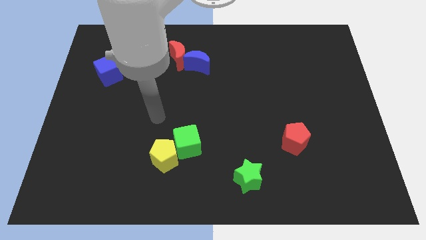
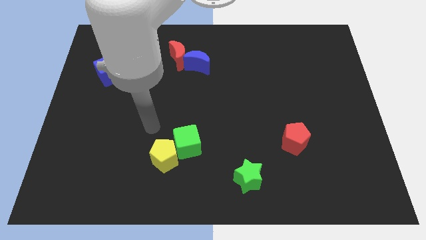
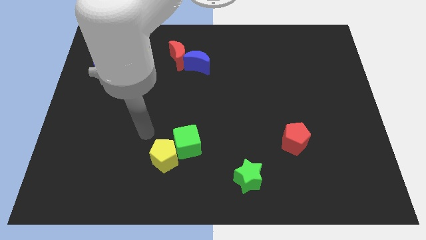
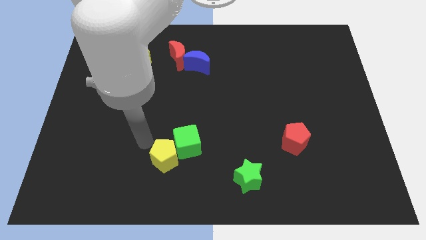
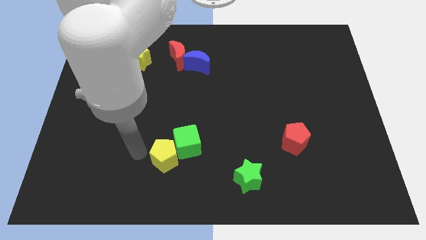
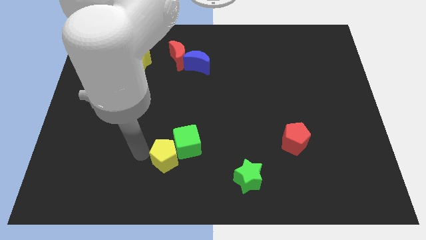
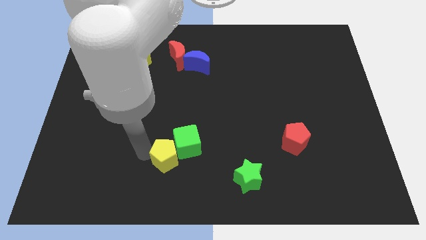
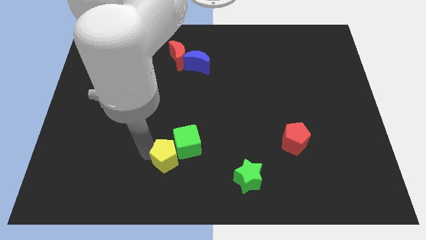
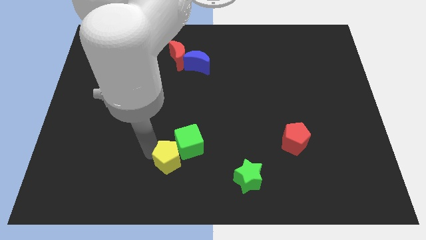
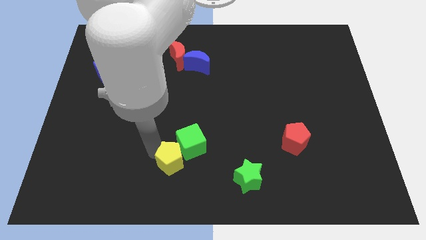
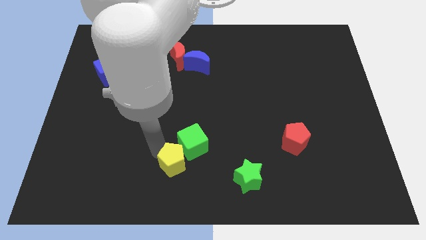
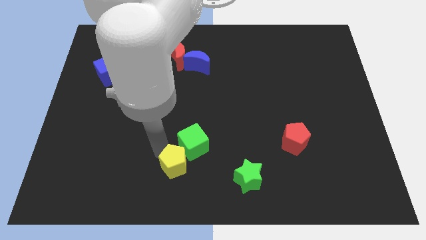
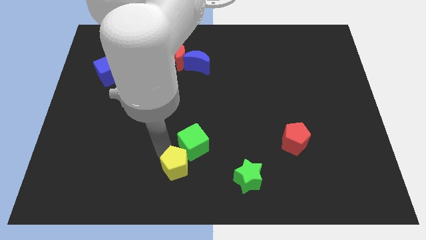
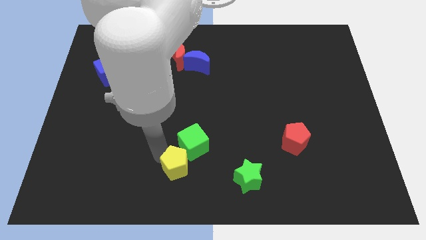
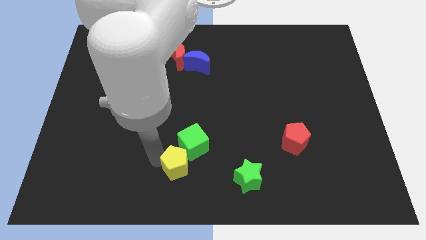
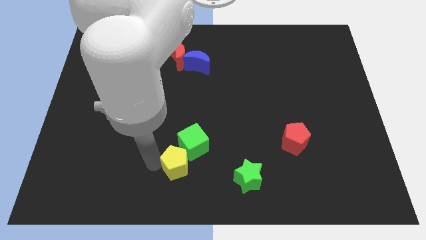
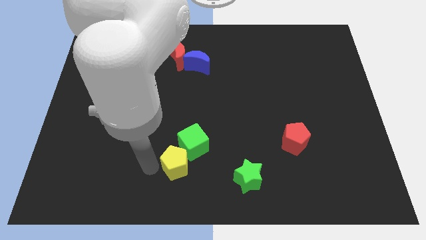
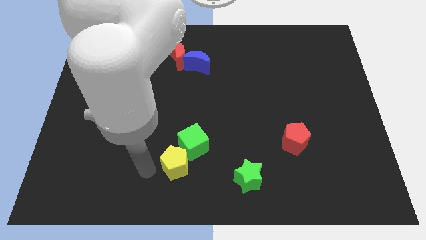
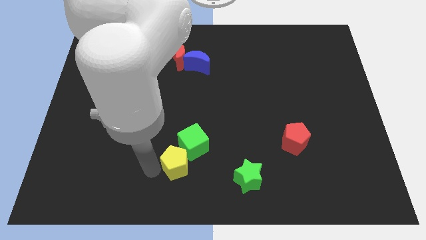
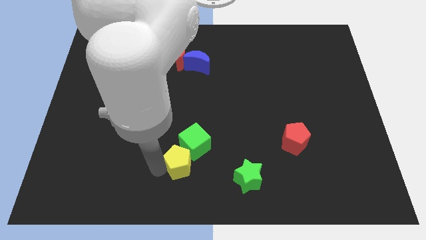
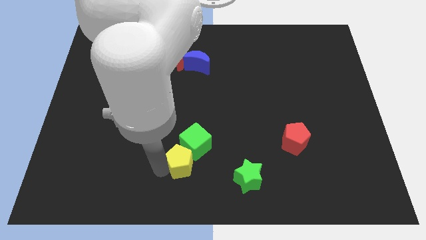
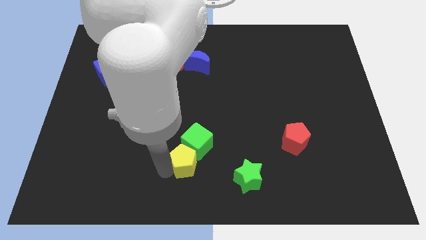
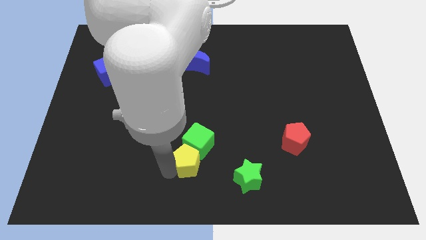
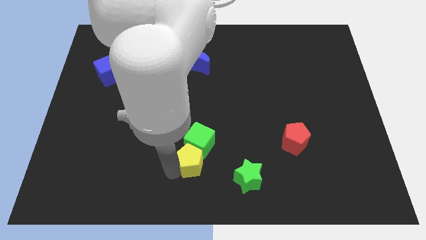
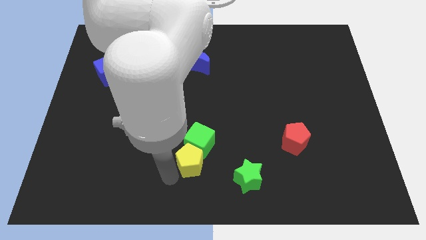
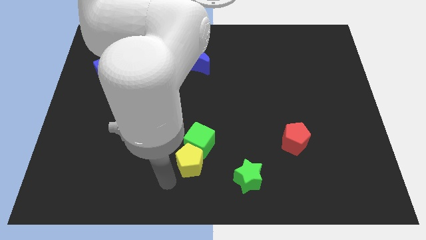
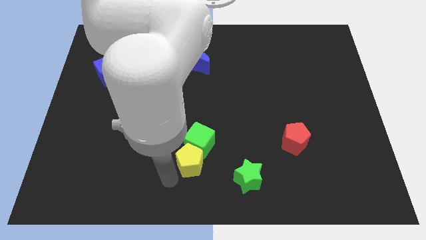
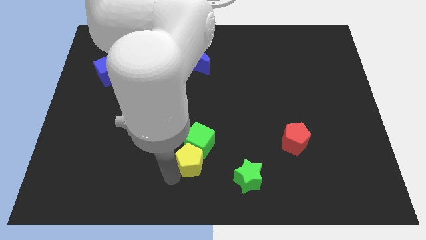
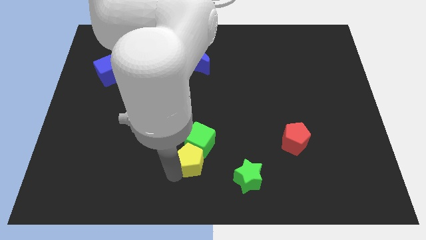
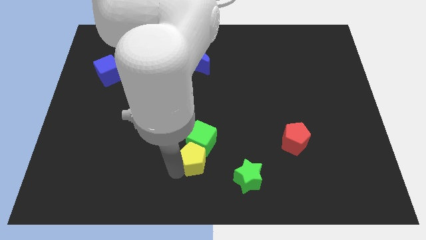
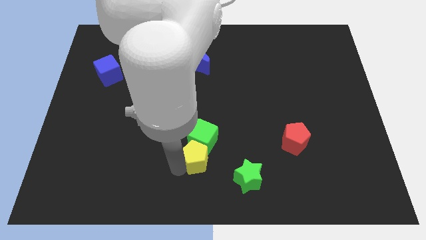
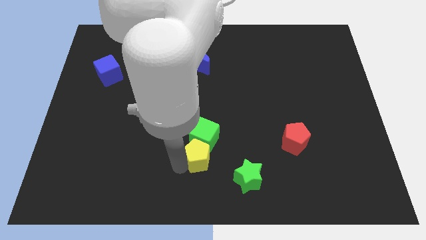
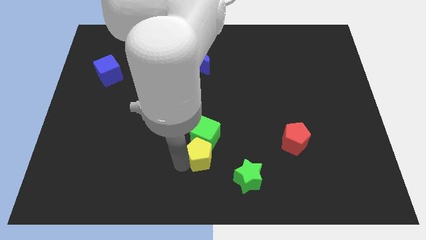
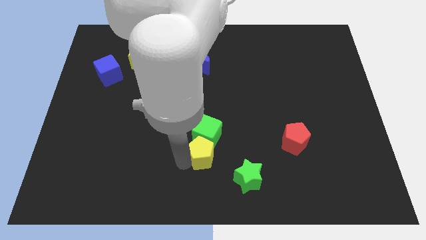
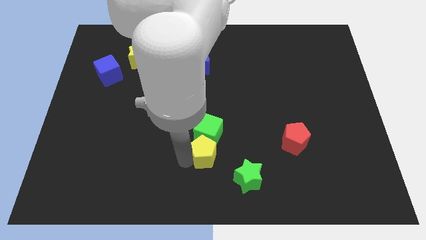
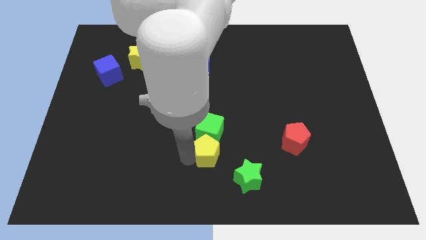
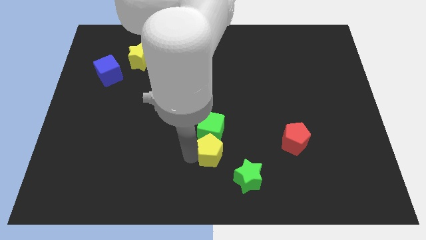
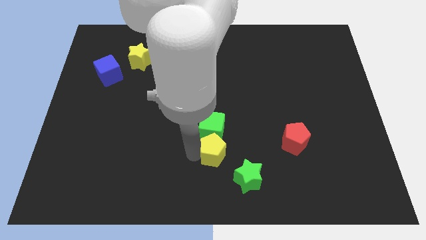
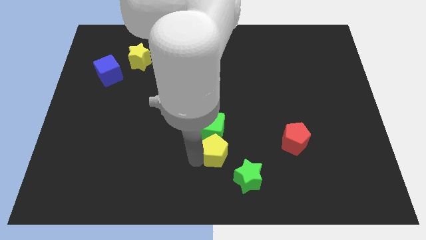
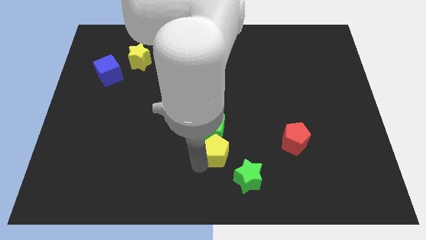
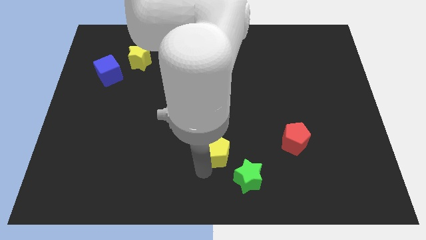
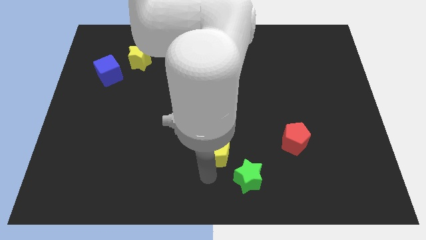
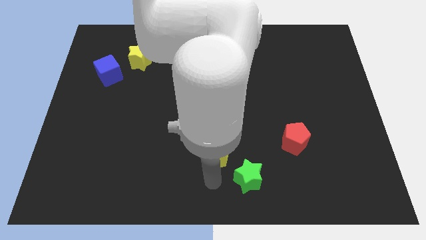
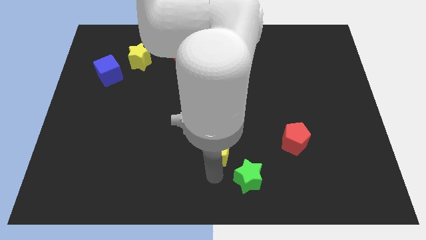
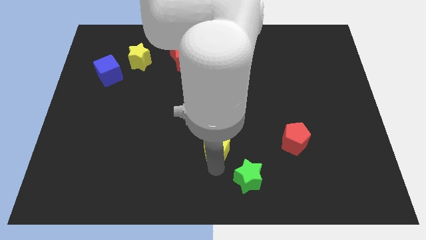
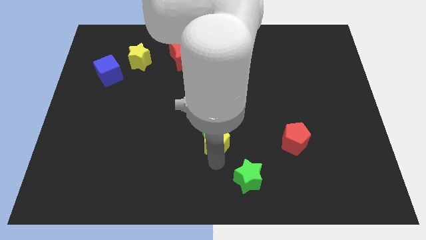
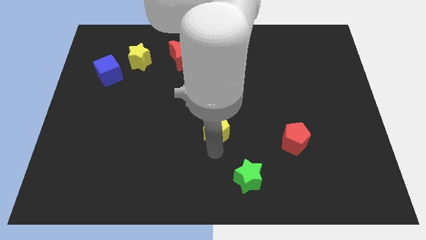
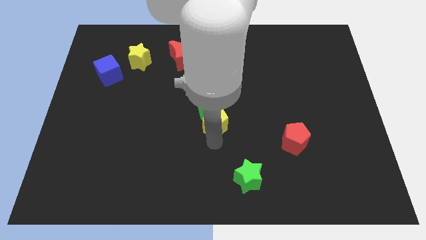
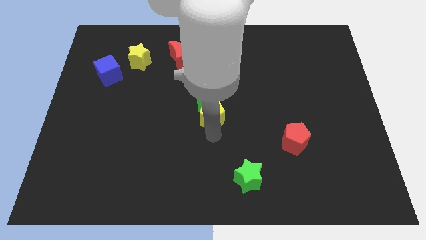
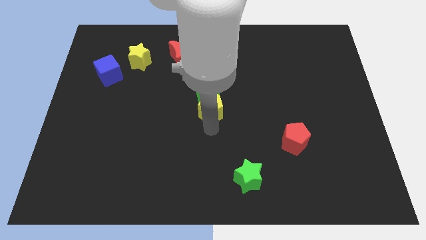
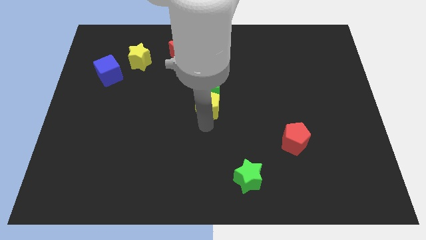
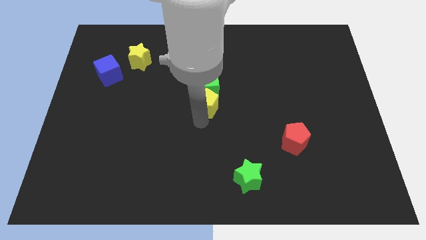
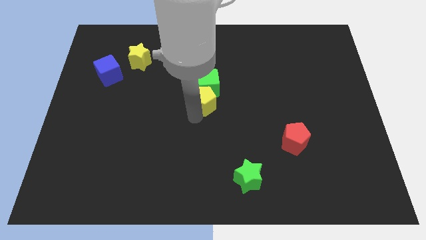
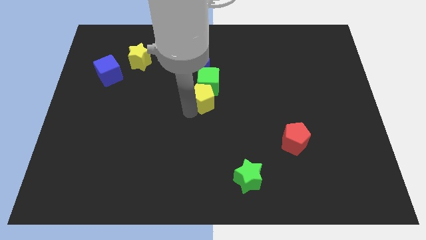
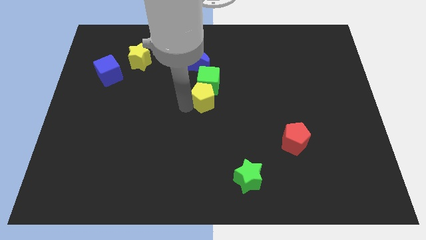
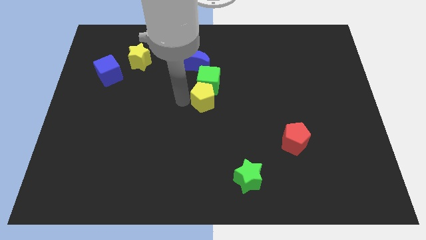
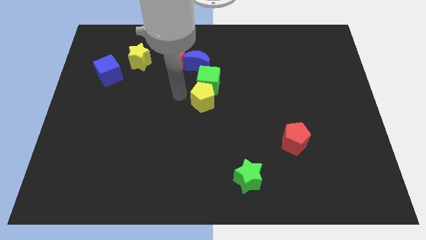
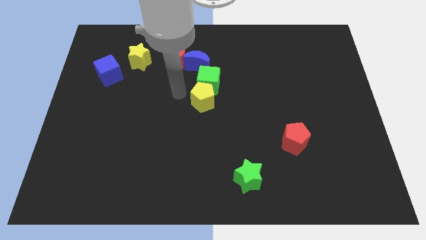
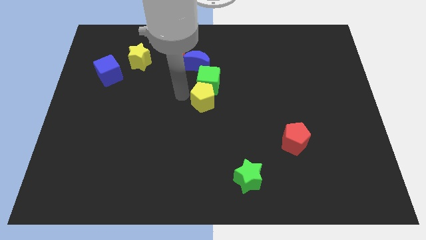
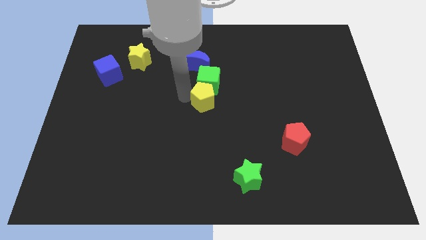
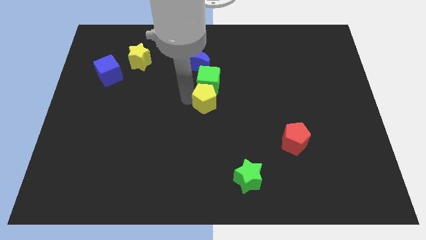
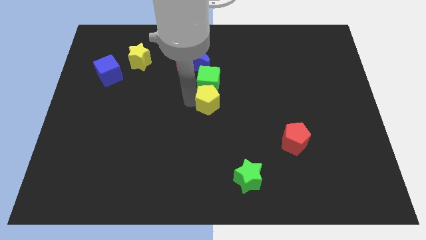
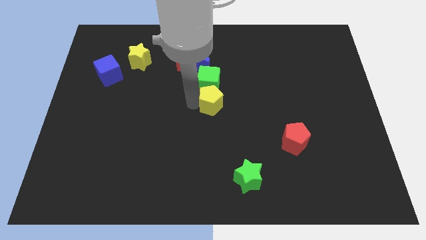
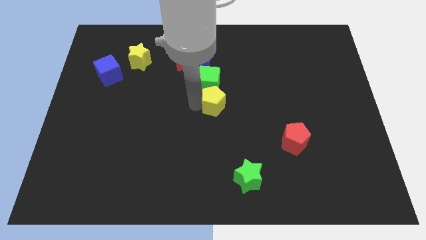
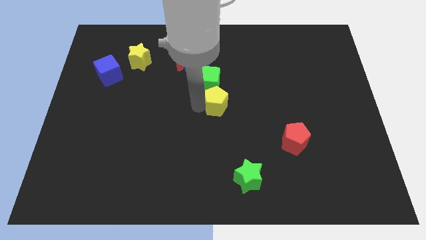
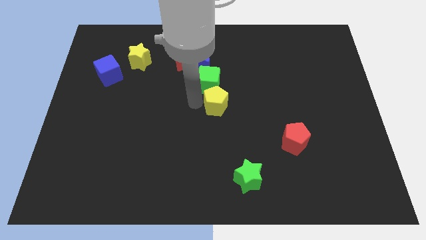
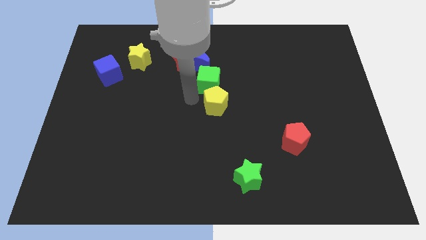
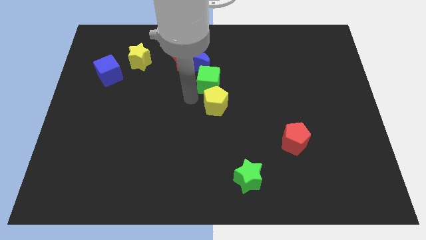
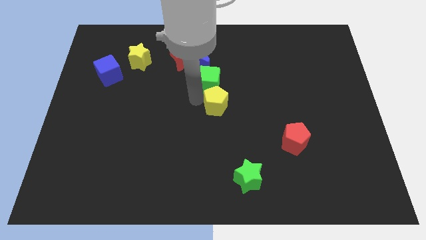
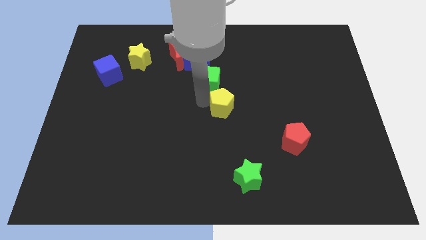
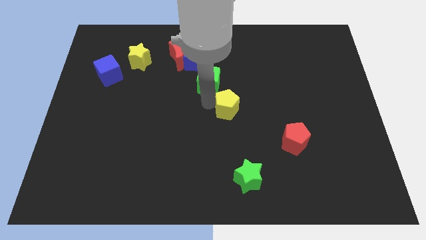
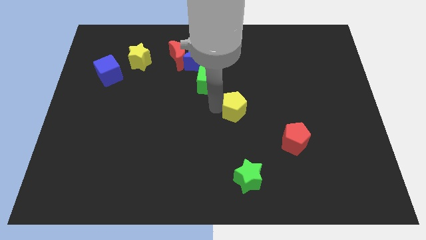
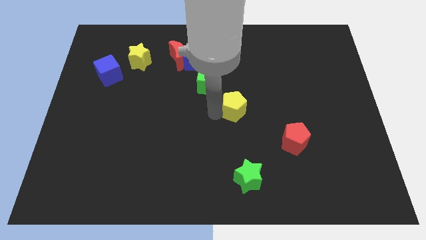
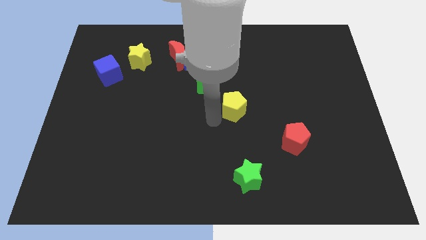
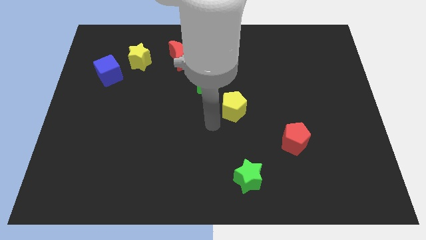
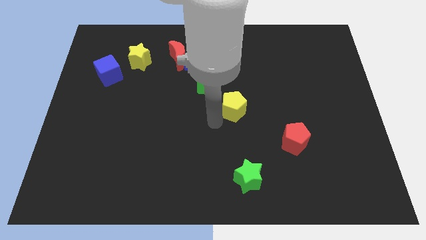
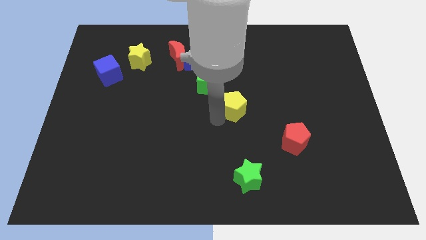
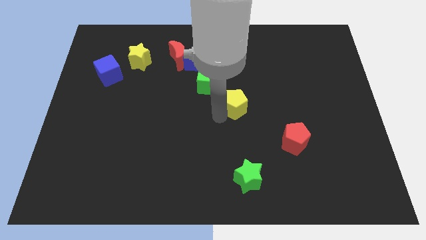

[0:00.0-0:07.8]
push the yellow pentagon up and to the right

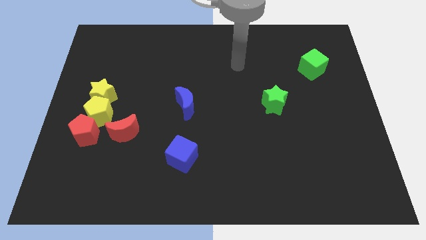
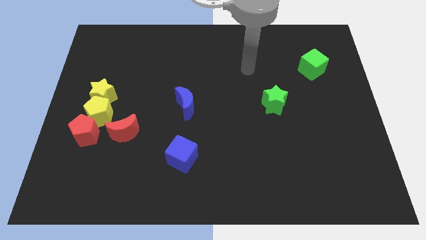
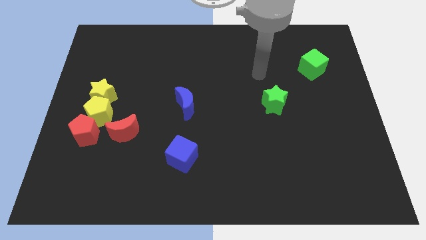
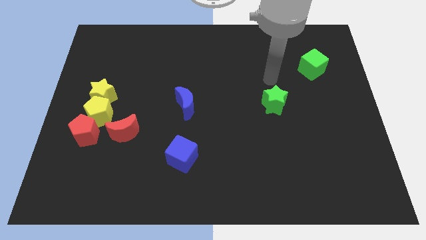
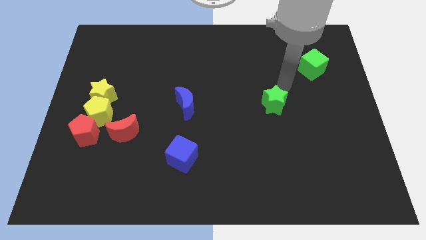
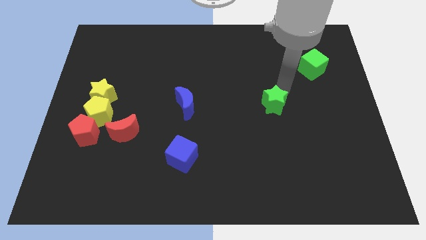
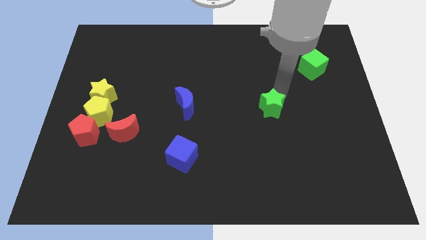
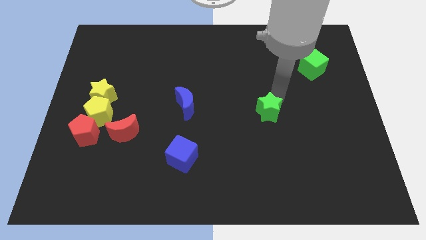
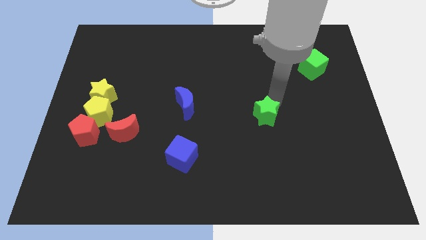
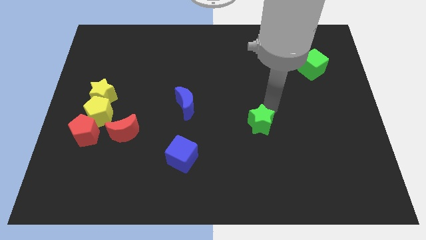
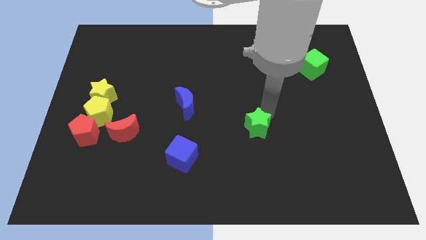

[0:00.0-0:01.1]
push the green star diagonally down and to the left a little
